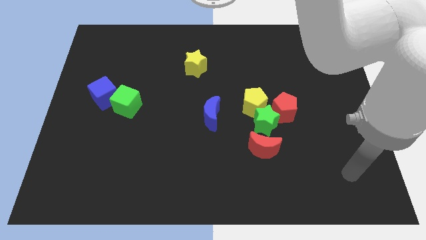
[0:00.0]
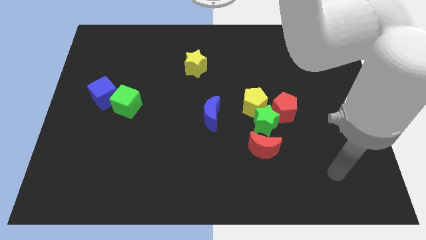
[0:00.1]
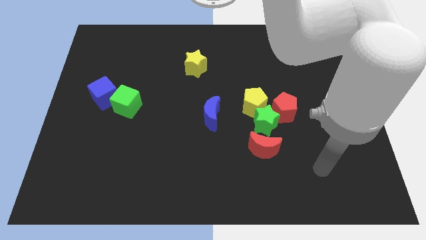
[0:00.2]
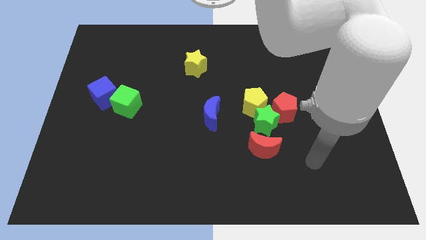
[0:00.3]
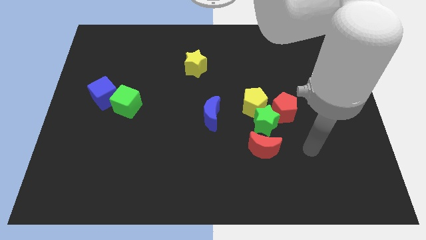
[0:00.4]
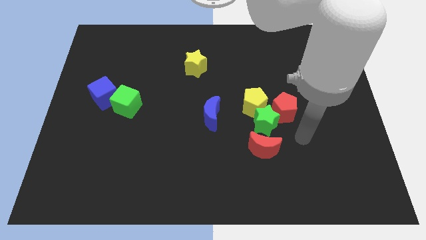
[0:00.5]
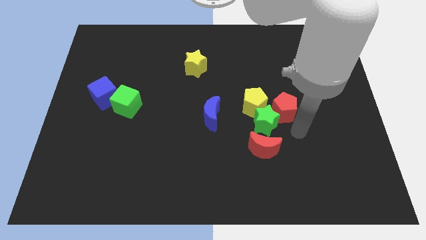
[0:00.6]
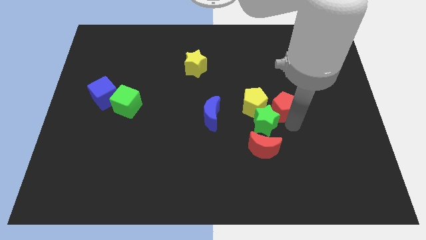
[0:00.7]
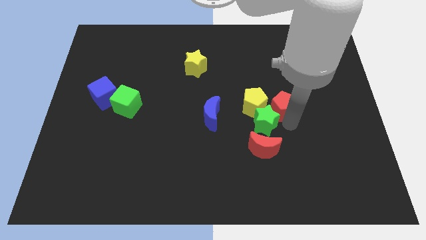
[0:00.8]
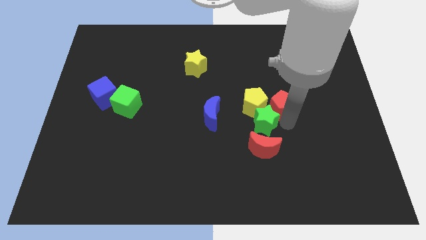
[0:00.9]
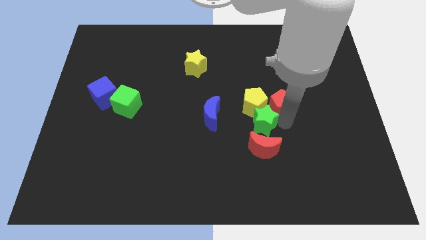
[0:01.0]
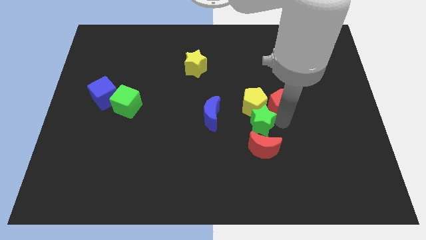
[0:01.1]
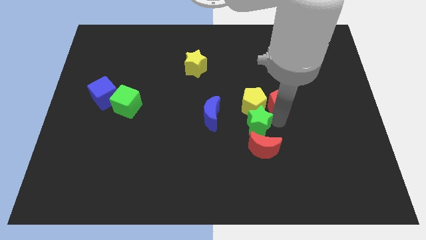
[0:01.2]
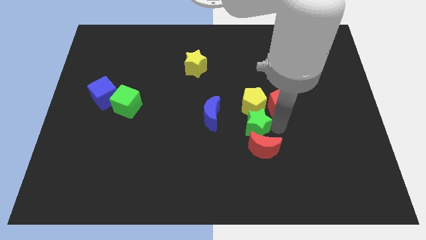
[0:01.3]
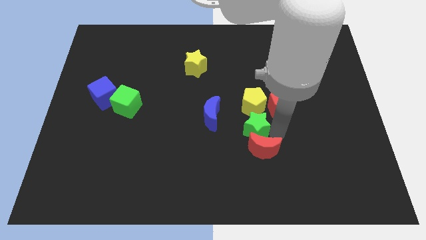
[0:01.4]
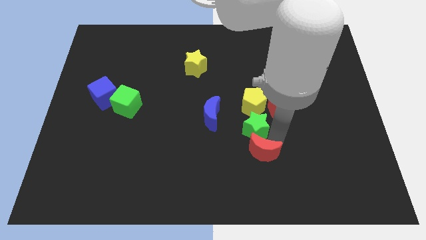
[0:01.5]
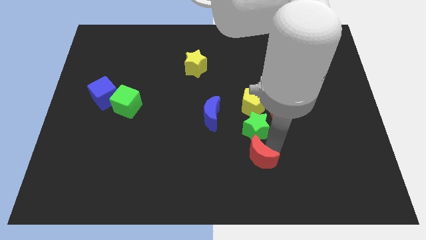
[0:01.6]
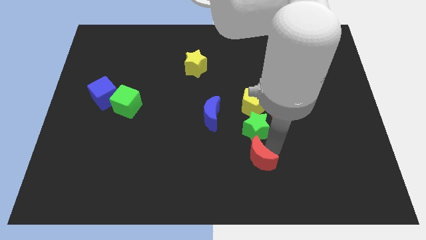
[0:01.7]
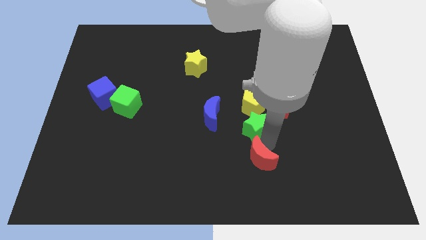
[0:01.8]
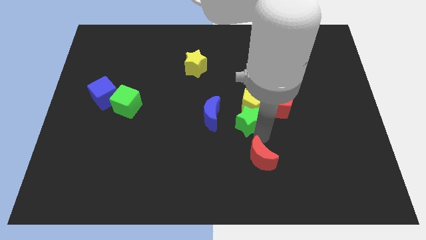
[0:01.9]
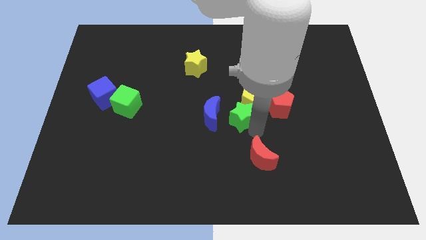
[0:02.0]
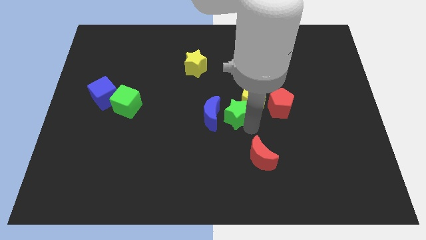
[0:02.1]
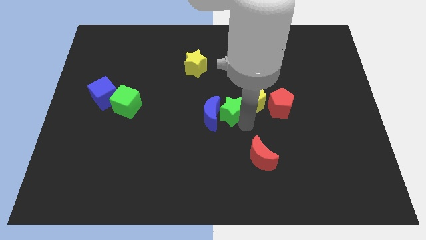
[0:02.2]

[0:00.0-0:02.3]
move the green star slightly upwards and left diagonally

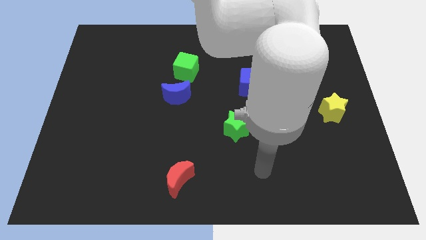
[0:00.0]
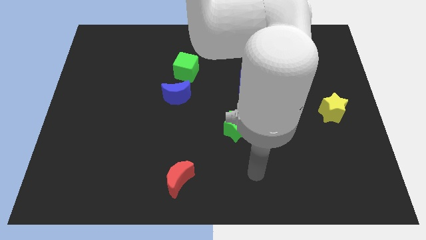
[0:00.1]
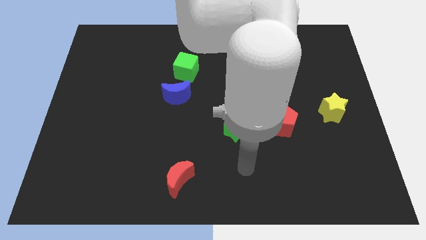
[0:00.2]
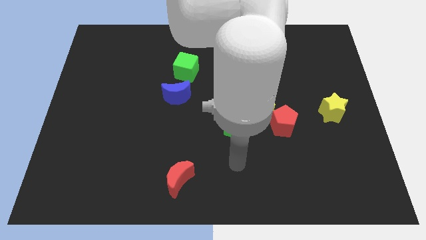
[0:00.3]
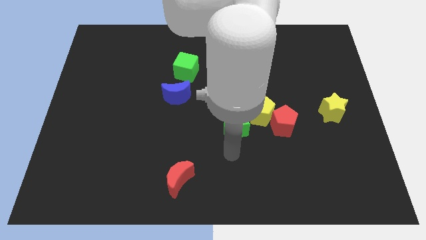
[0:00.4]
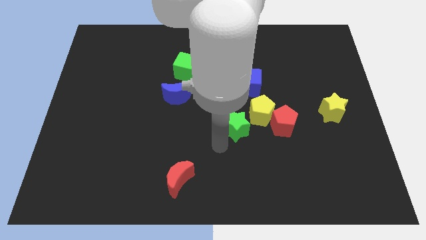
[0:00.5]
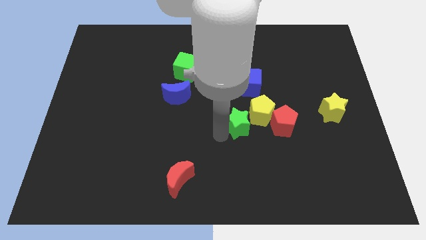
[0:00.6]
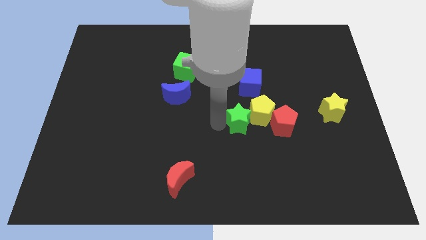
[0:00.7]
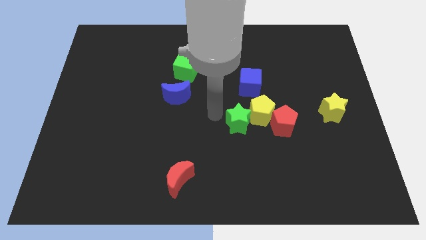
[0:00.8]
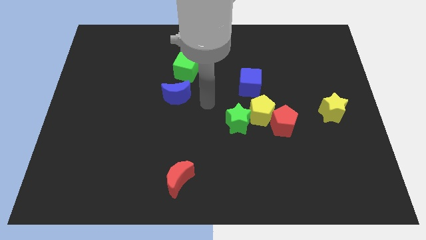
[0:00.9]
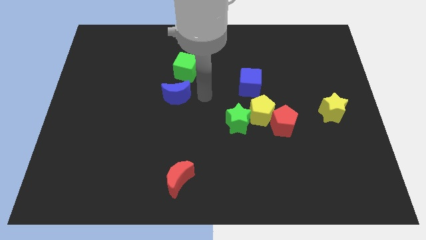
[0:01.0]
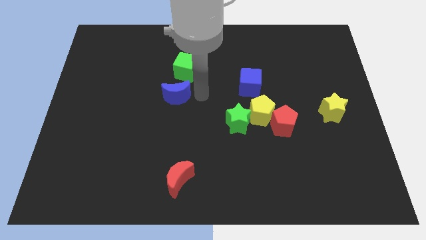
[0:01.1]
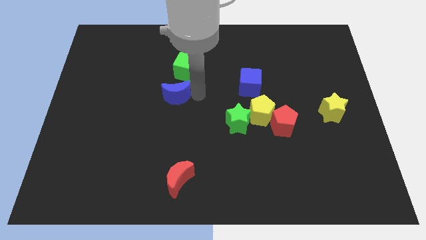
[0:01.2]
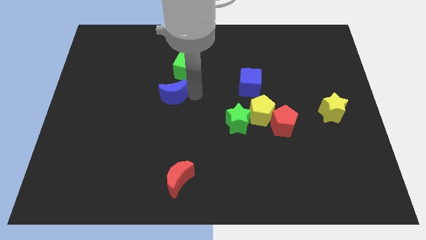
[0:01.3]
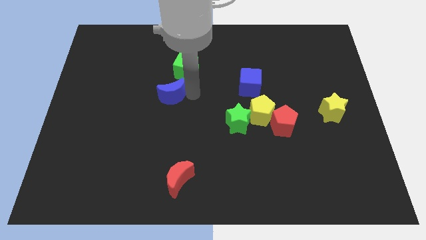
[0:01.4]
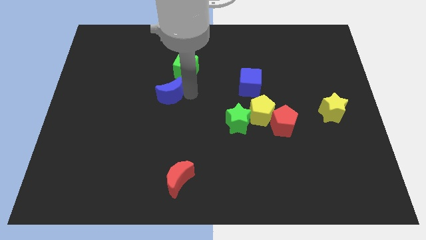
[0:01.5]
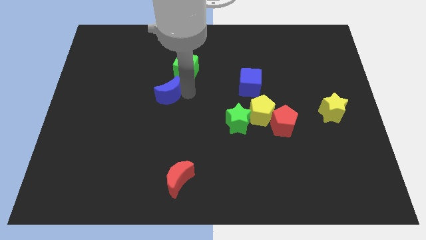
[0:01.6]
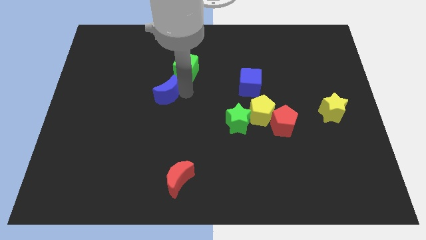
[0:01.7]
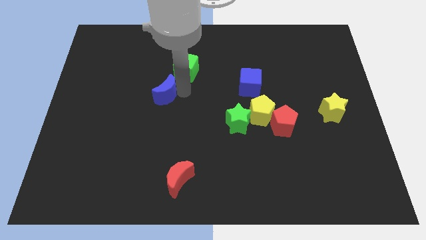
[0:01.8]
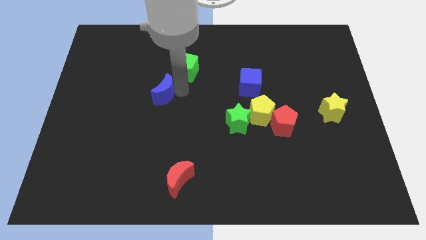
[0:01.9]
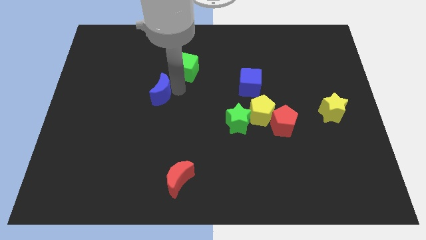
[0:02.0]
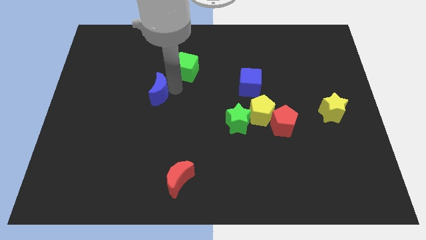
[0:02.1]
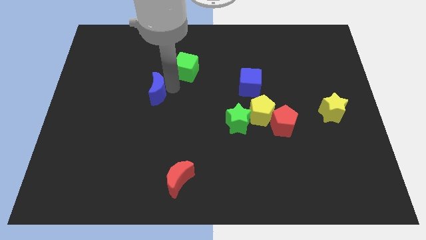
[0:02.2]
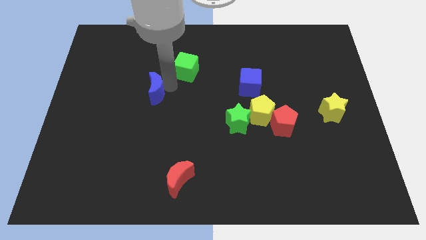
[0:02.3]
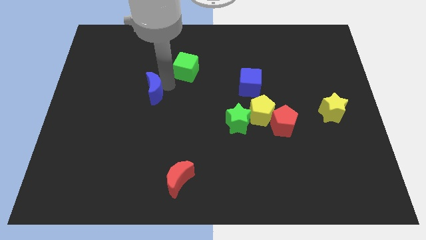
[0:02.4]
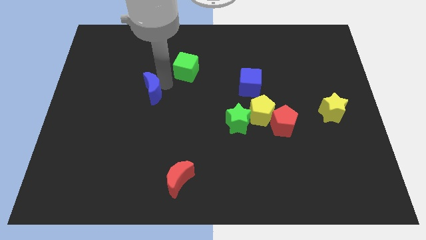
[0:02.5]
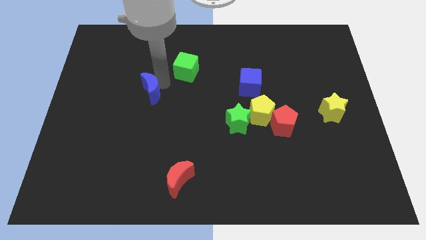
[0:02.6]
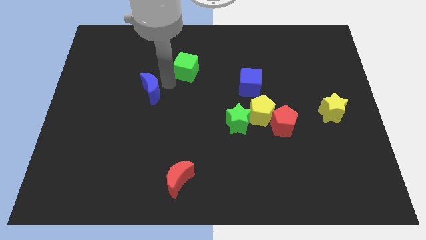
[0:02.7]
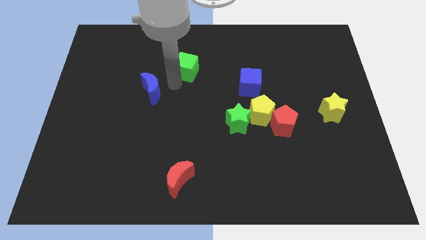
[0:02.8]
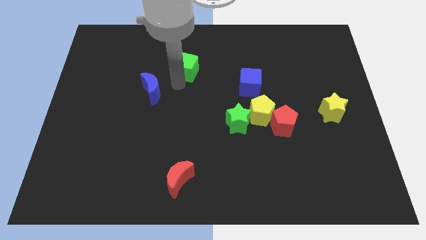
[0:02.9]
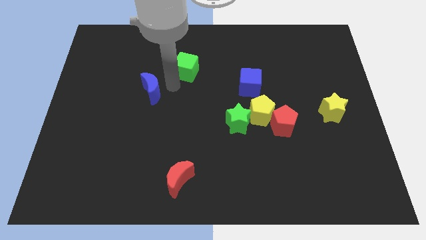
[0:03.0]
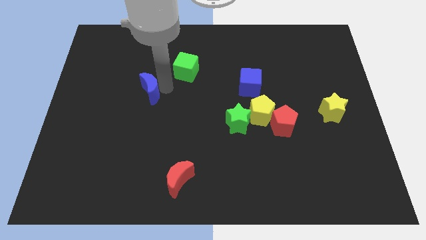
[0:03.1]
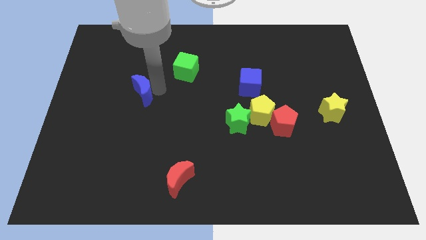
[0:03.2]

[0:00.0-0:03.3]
slide the blue moon left a little

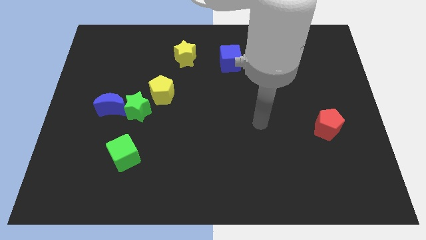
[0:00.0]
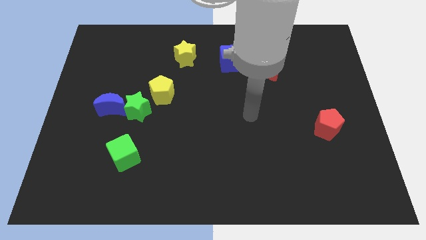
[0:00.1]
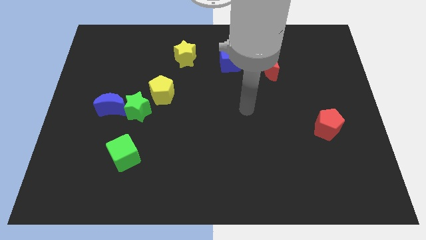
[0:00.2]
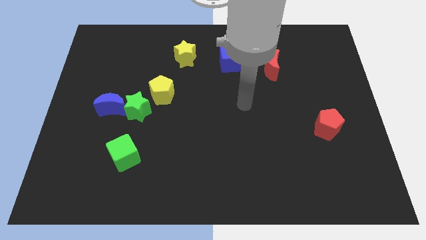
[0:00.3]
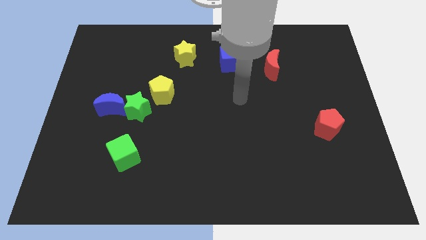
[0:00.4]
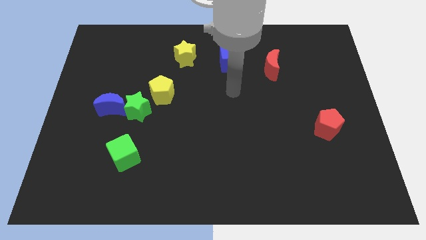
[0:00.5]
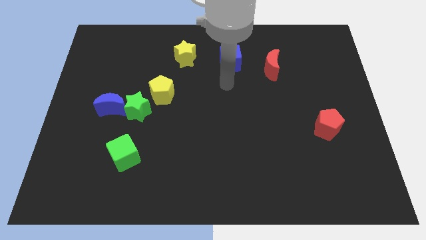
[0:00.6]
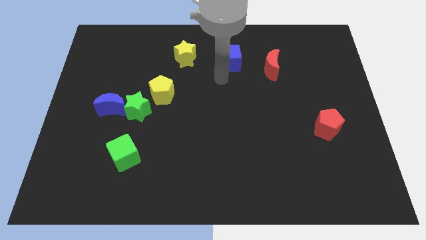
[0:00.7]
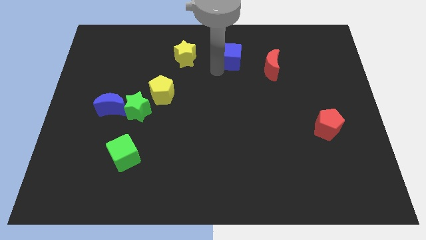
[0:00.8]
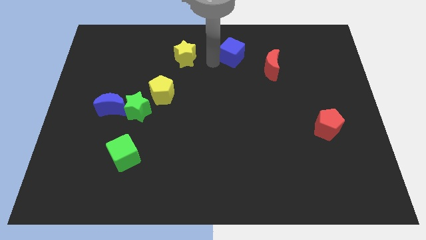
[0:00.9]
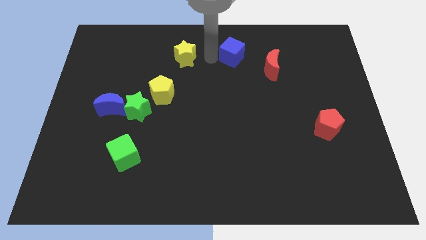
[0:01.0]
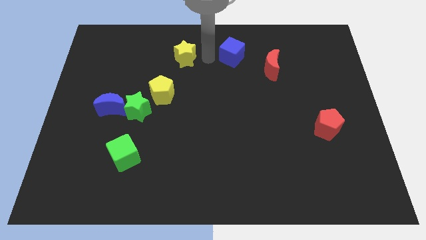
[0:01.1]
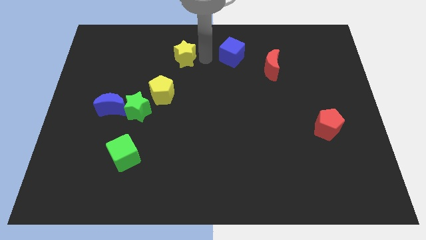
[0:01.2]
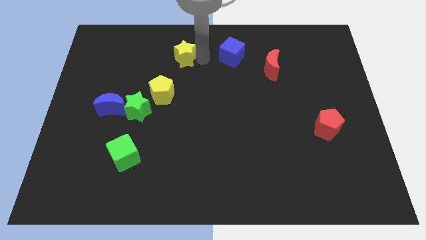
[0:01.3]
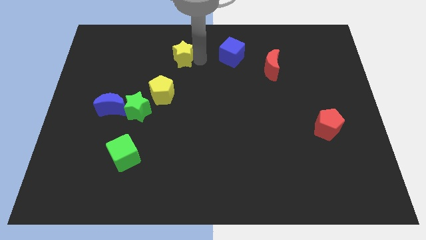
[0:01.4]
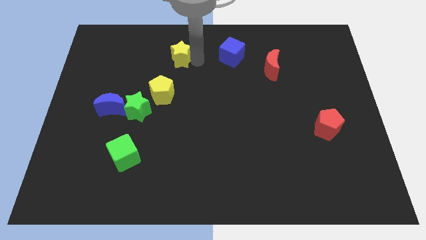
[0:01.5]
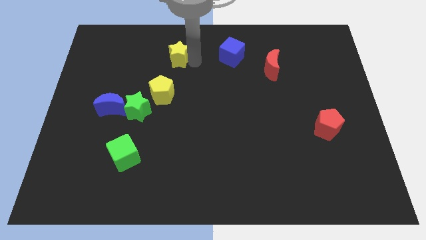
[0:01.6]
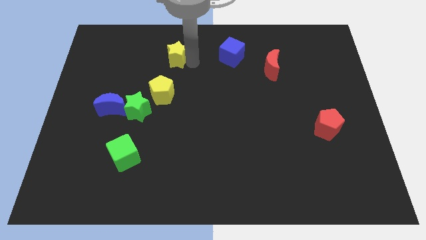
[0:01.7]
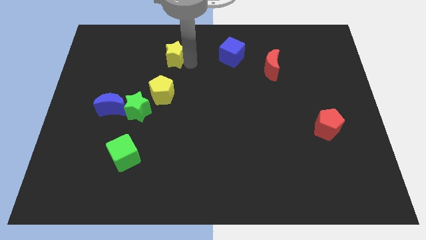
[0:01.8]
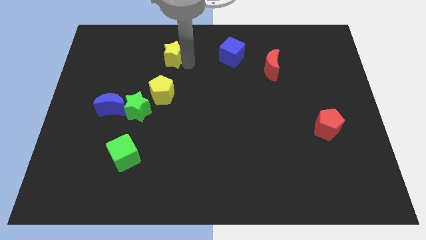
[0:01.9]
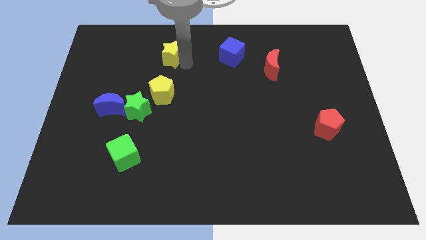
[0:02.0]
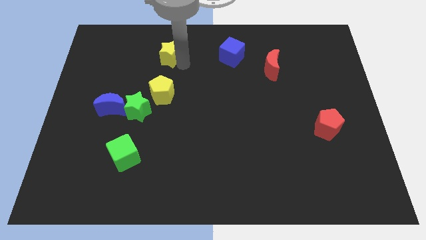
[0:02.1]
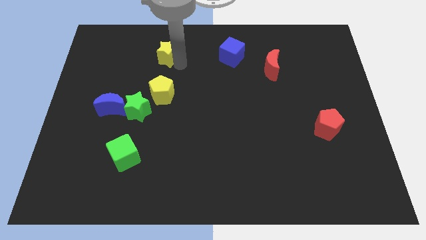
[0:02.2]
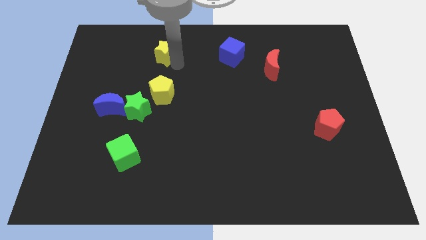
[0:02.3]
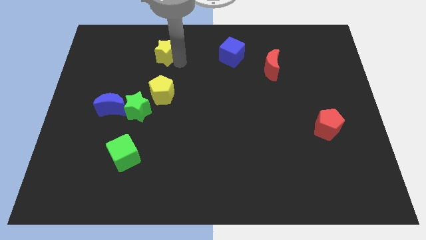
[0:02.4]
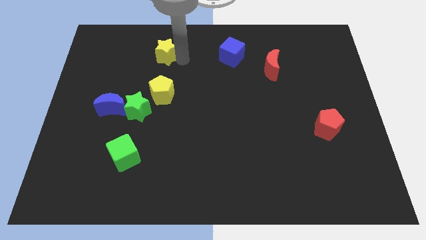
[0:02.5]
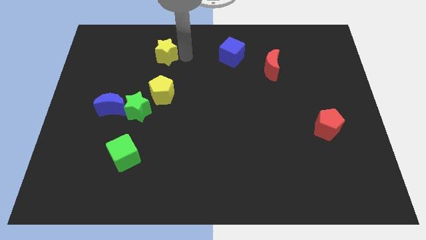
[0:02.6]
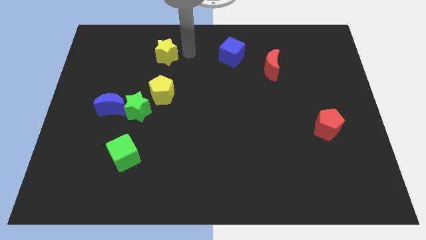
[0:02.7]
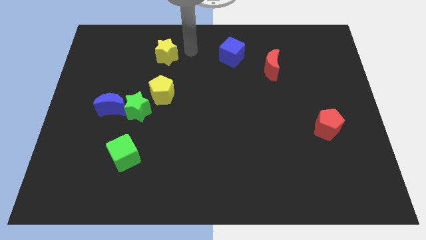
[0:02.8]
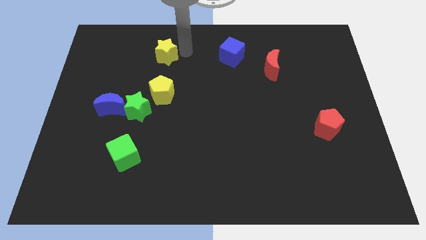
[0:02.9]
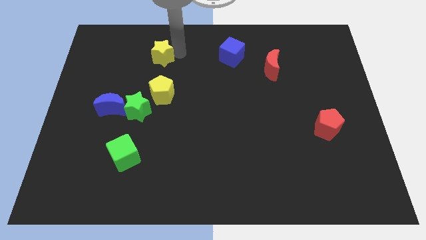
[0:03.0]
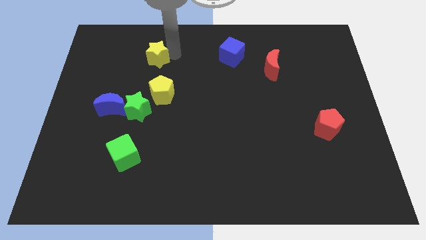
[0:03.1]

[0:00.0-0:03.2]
push the yellow star a bit left
